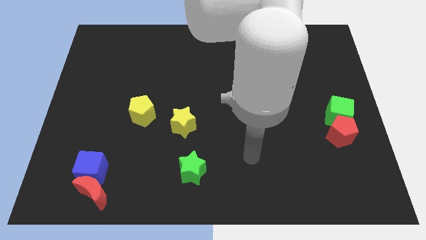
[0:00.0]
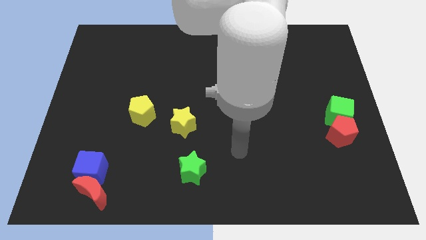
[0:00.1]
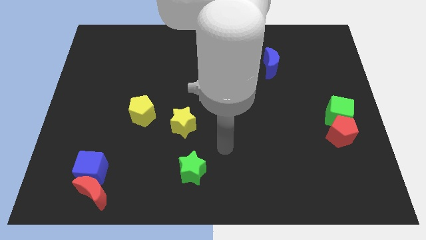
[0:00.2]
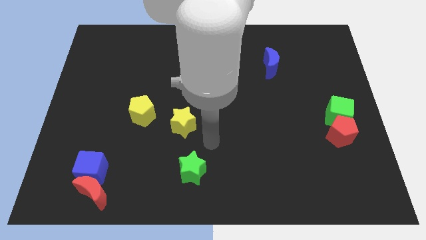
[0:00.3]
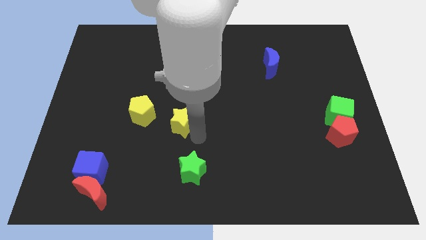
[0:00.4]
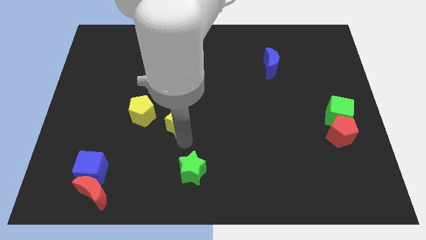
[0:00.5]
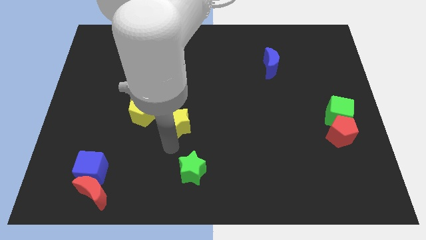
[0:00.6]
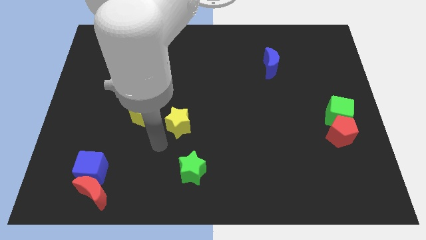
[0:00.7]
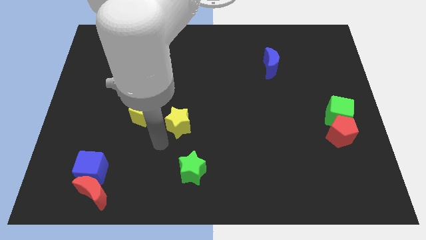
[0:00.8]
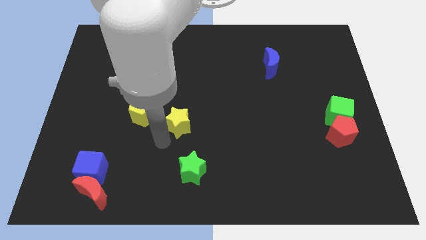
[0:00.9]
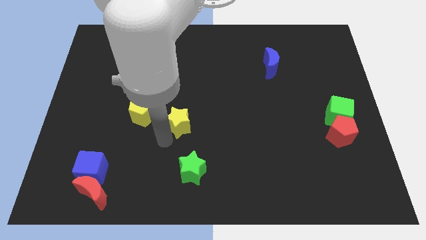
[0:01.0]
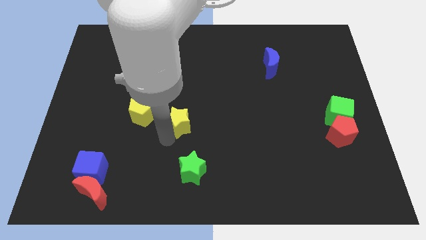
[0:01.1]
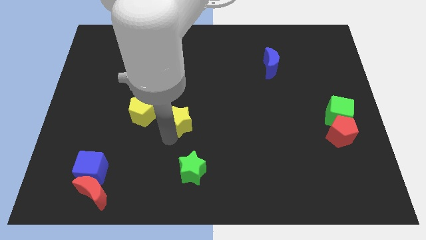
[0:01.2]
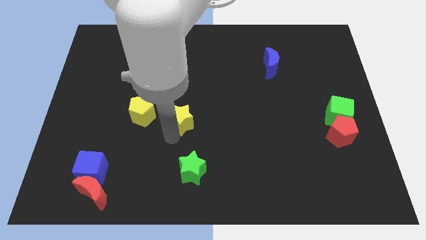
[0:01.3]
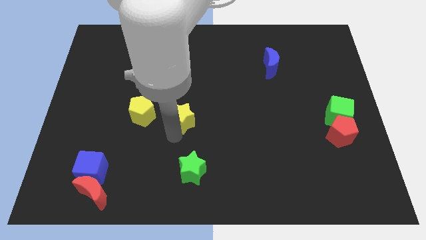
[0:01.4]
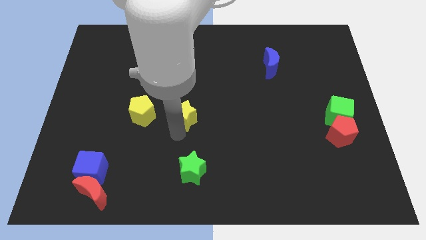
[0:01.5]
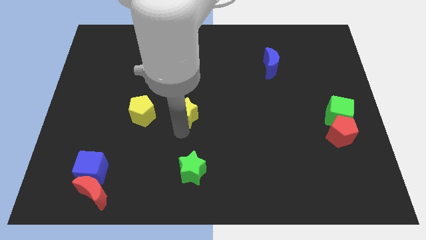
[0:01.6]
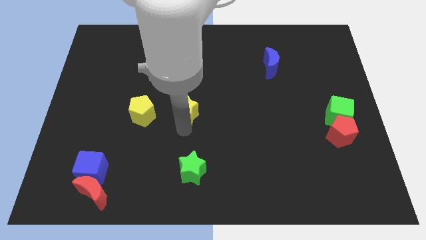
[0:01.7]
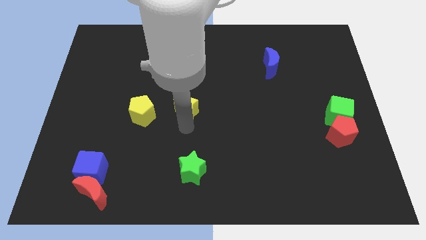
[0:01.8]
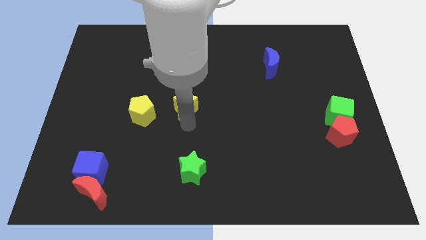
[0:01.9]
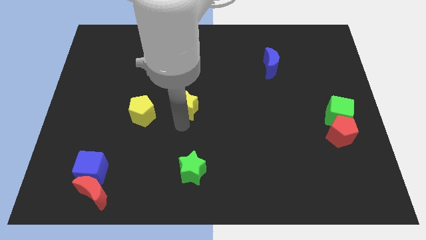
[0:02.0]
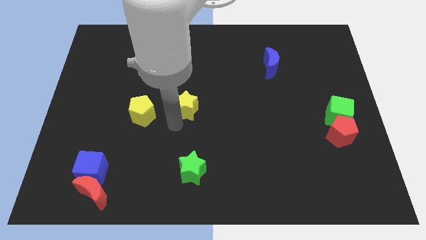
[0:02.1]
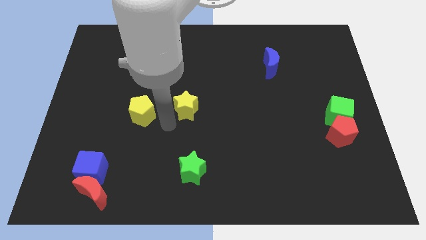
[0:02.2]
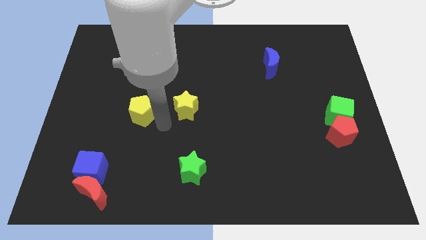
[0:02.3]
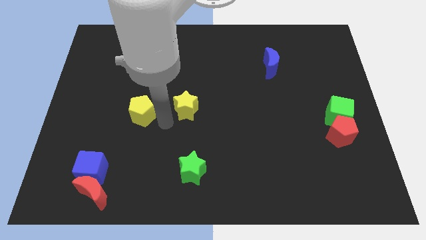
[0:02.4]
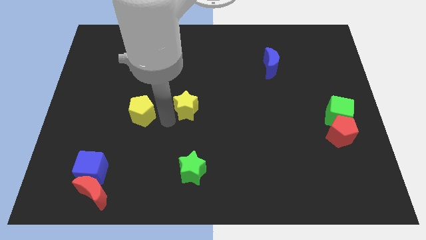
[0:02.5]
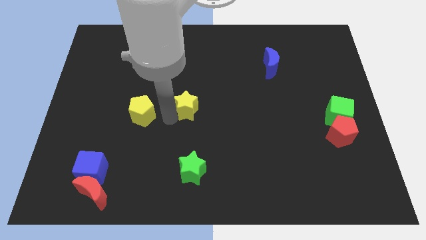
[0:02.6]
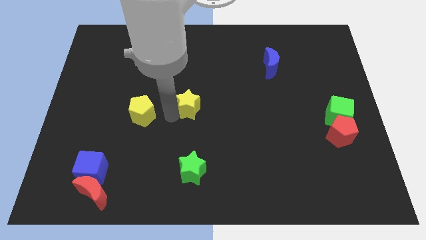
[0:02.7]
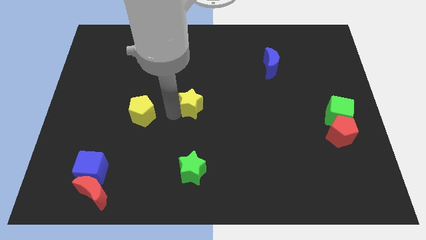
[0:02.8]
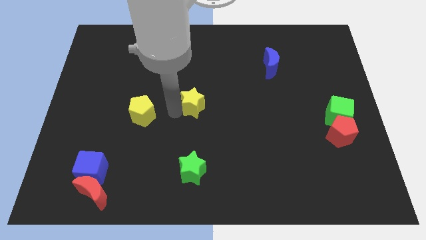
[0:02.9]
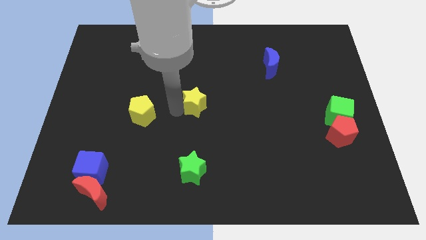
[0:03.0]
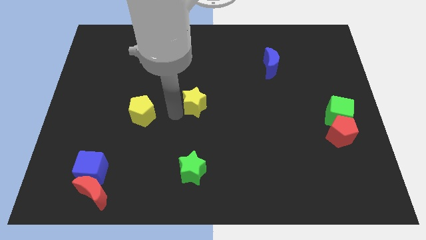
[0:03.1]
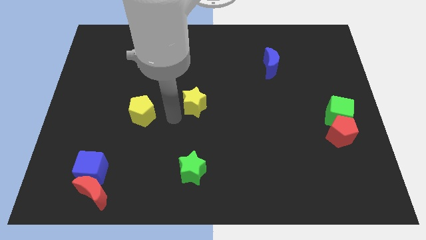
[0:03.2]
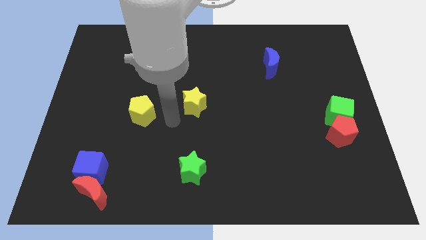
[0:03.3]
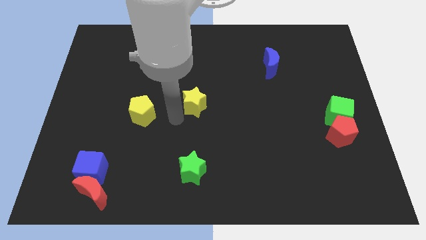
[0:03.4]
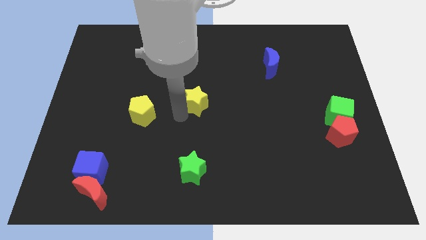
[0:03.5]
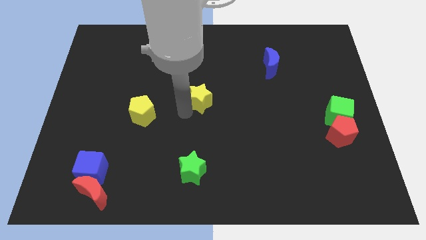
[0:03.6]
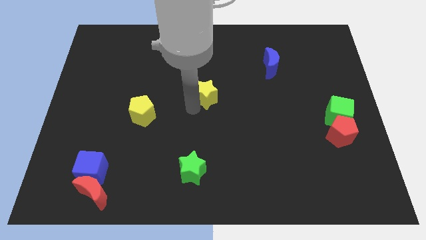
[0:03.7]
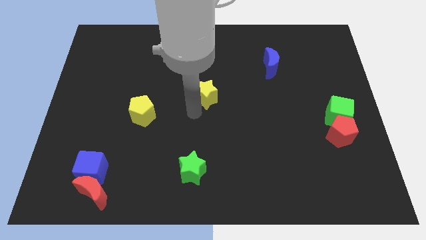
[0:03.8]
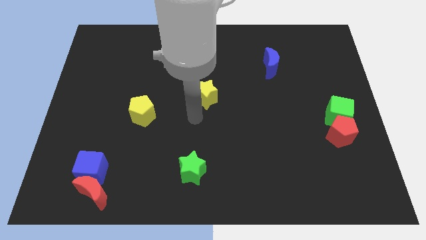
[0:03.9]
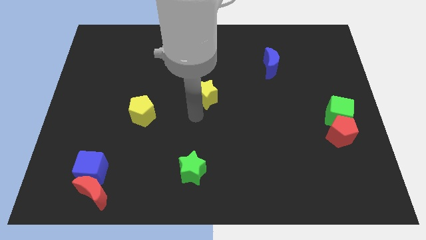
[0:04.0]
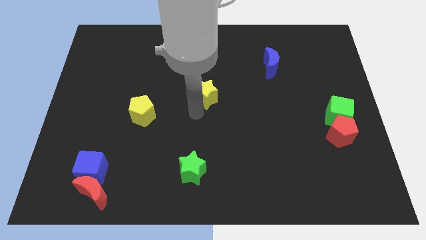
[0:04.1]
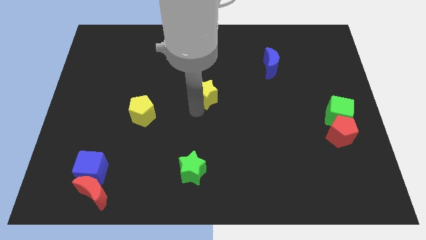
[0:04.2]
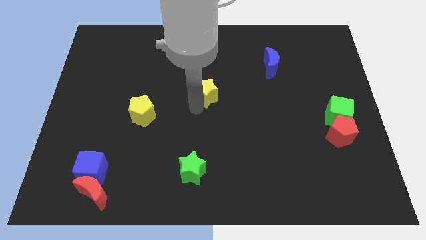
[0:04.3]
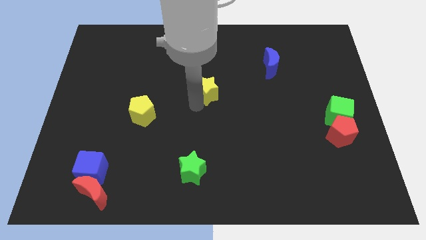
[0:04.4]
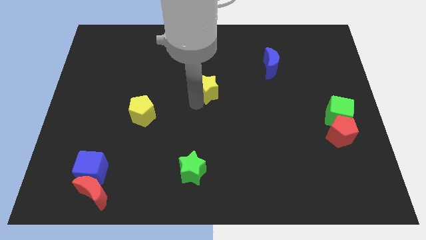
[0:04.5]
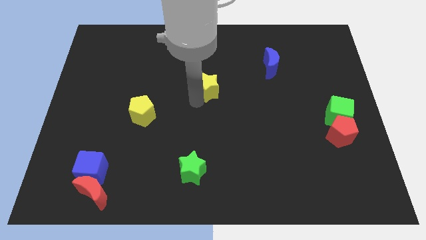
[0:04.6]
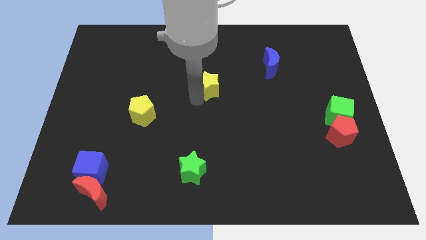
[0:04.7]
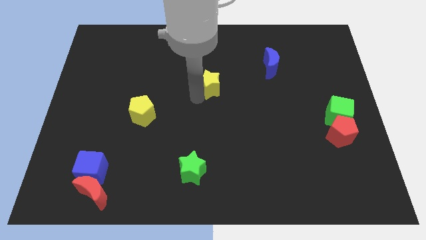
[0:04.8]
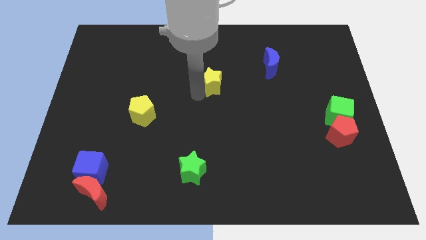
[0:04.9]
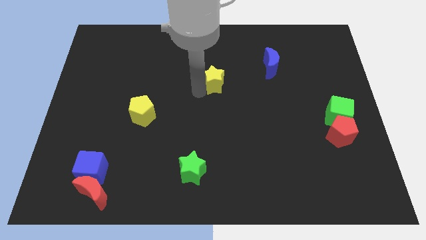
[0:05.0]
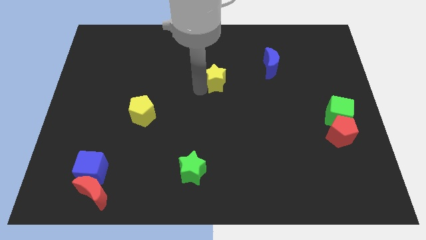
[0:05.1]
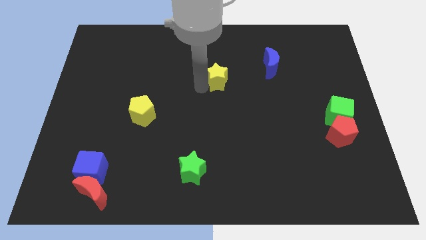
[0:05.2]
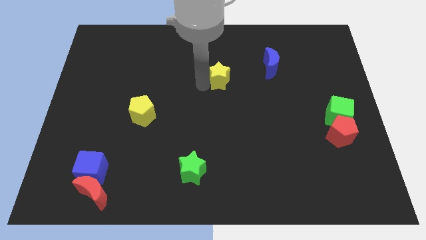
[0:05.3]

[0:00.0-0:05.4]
slide the yellow star left of the blue moon

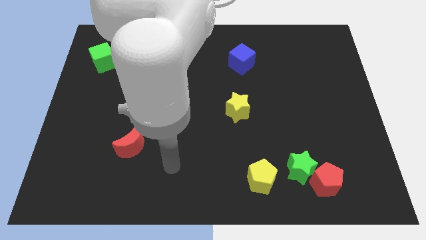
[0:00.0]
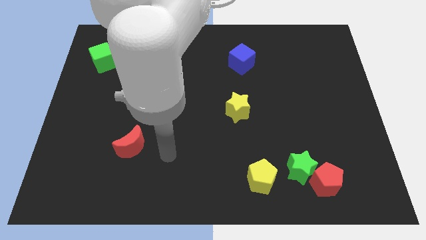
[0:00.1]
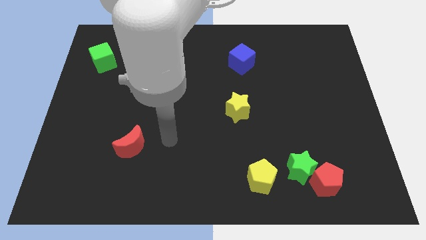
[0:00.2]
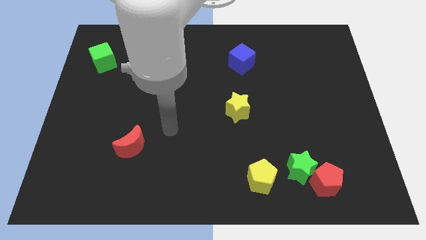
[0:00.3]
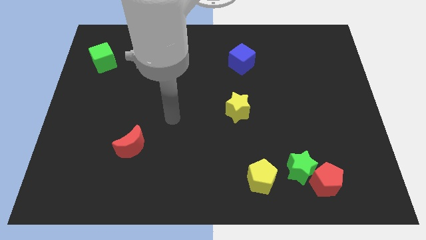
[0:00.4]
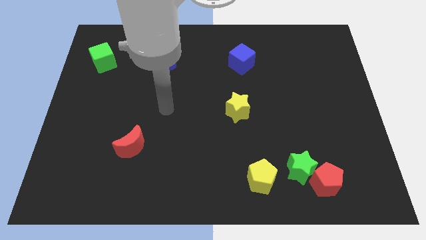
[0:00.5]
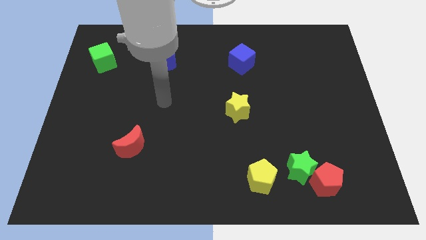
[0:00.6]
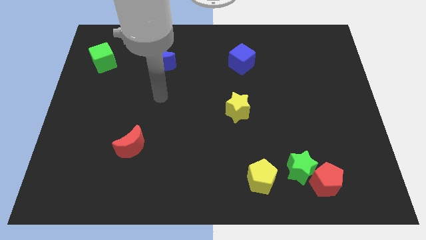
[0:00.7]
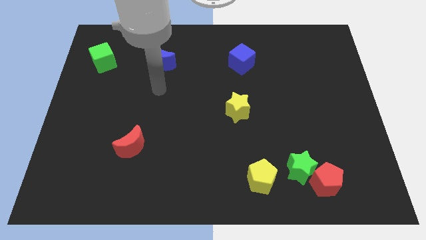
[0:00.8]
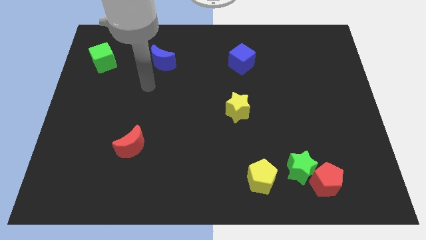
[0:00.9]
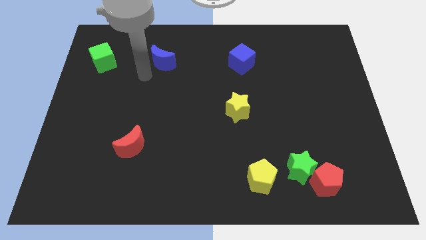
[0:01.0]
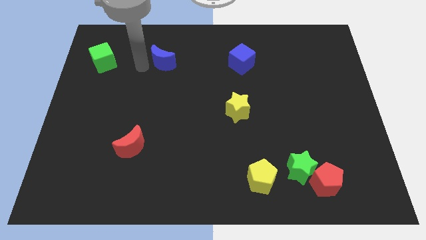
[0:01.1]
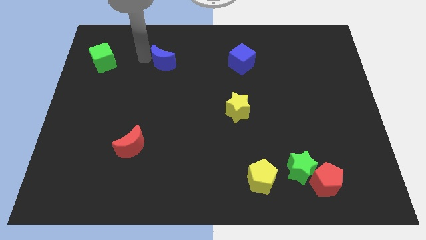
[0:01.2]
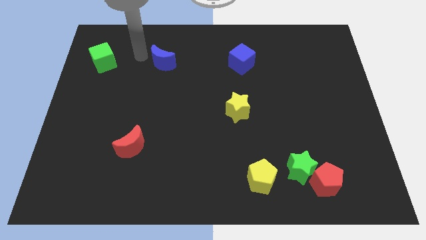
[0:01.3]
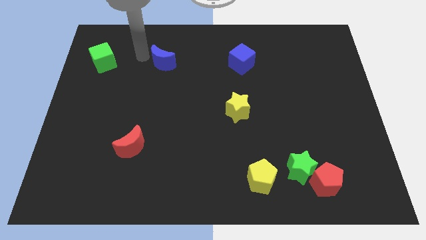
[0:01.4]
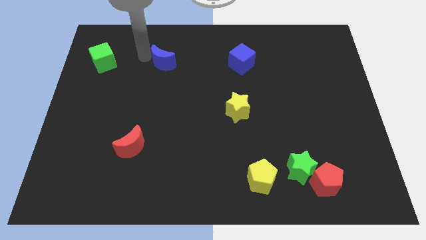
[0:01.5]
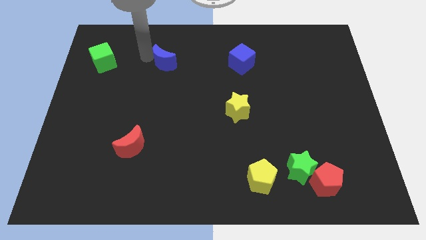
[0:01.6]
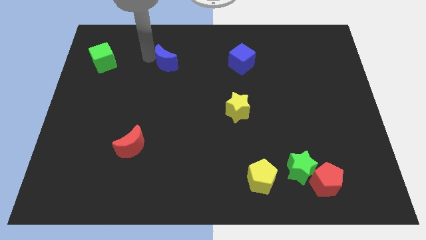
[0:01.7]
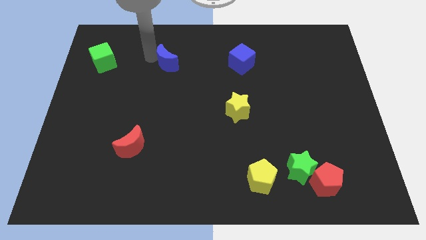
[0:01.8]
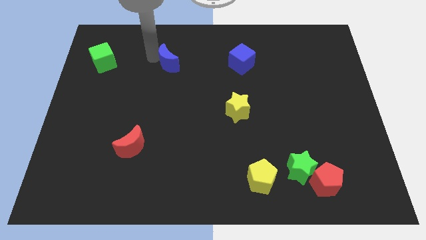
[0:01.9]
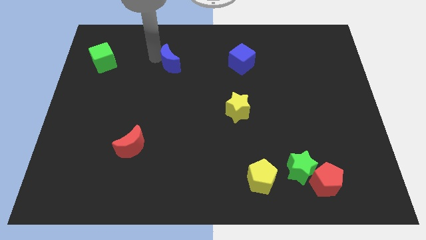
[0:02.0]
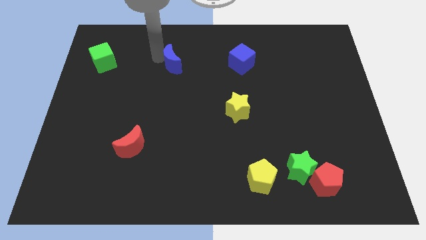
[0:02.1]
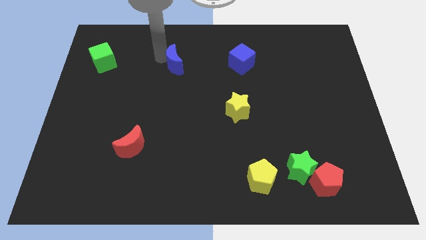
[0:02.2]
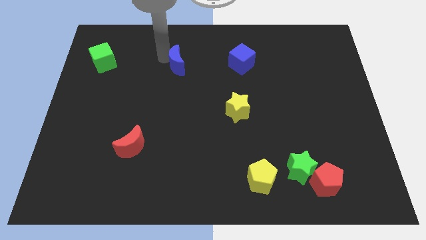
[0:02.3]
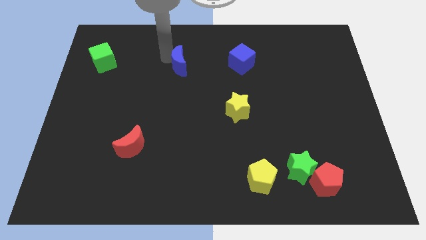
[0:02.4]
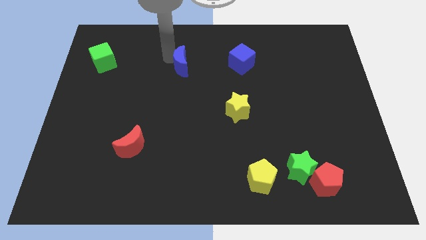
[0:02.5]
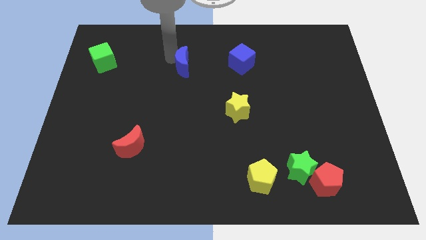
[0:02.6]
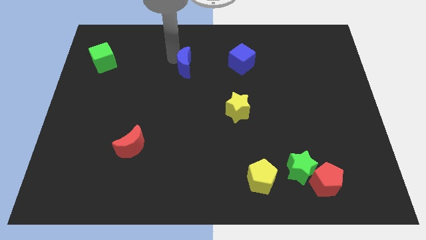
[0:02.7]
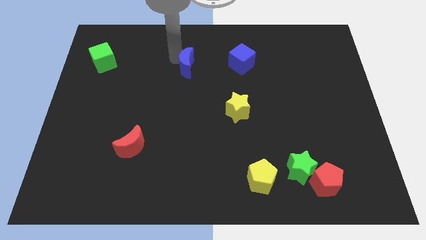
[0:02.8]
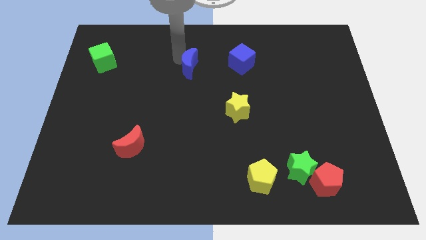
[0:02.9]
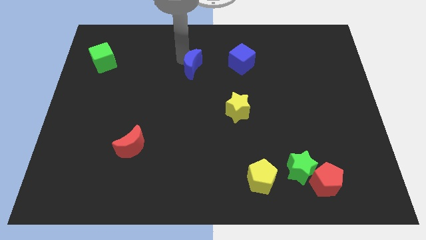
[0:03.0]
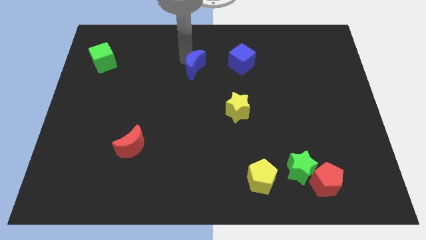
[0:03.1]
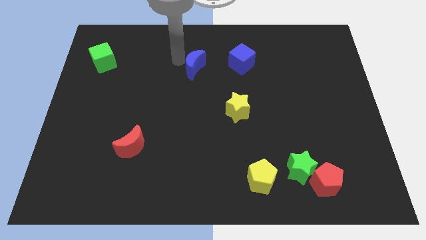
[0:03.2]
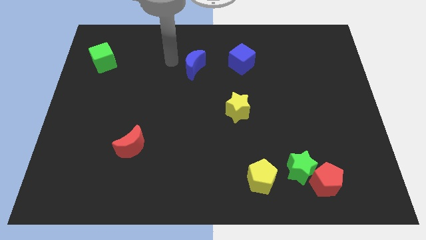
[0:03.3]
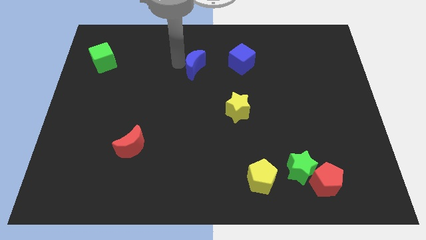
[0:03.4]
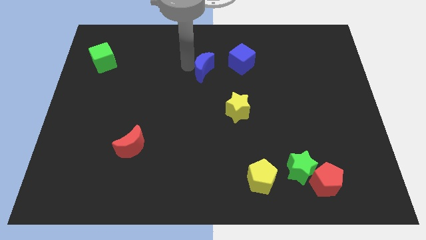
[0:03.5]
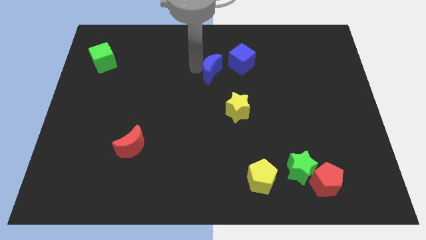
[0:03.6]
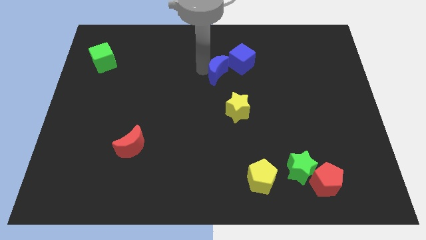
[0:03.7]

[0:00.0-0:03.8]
push the blue moon to the top side of the yellow star
